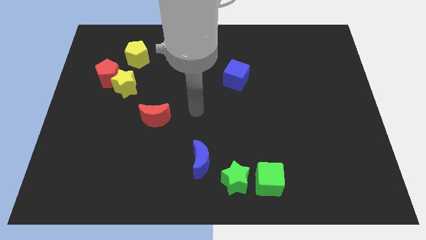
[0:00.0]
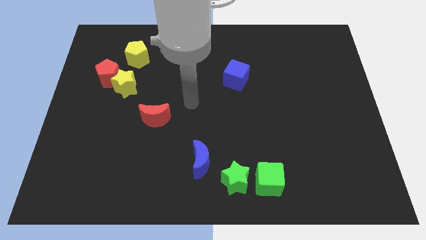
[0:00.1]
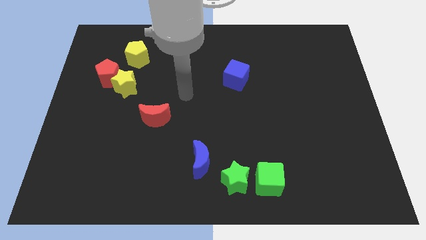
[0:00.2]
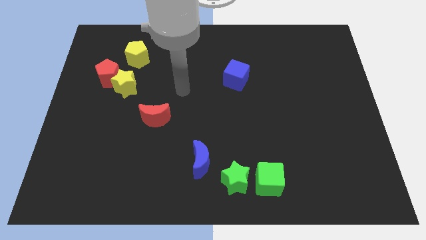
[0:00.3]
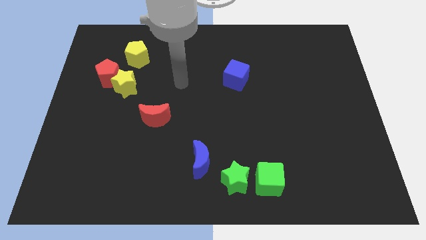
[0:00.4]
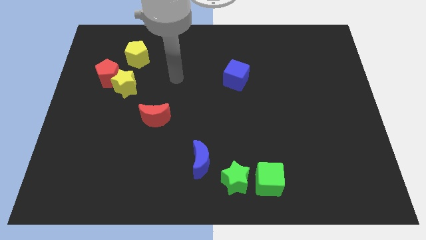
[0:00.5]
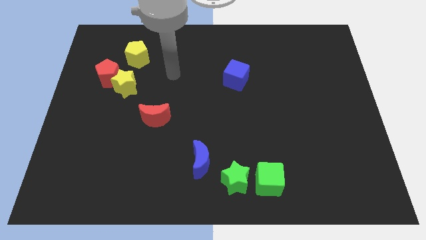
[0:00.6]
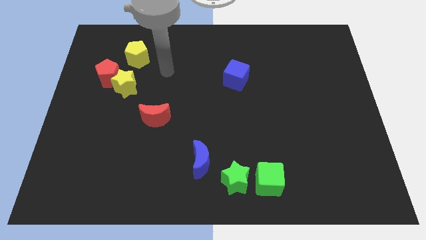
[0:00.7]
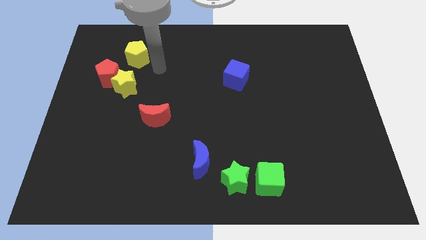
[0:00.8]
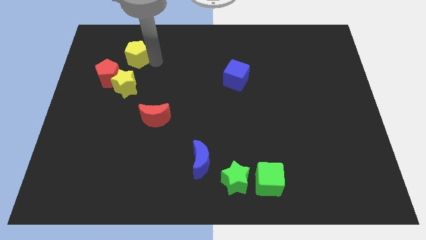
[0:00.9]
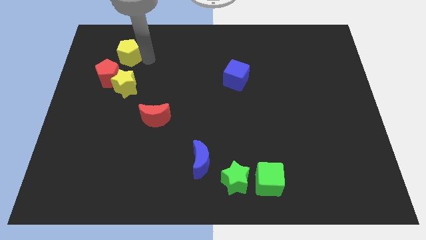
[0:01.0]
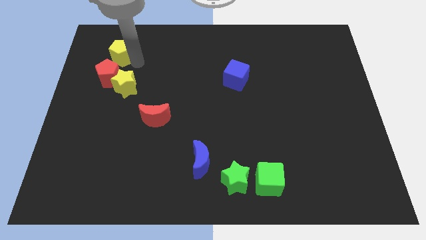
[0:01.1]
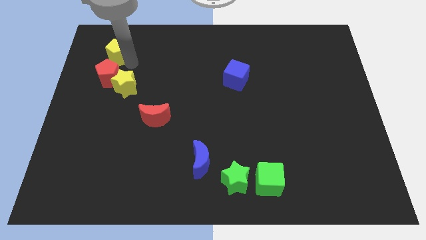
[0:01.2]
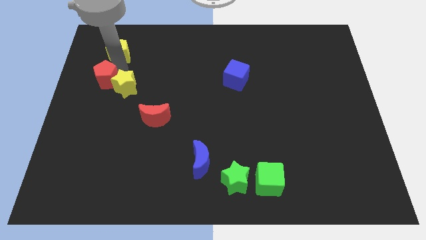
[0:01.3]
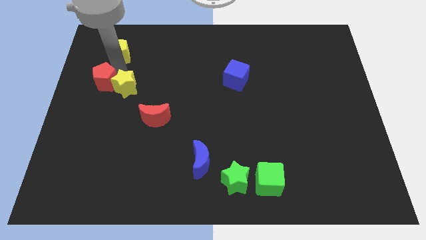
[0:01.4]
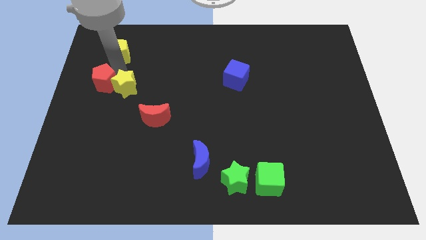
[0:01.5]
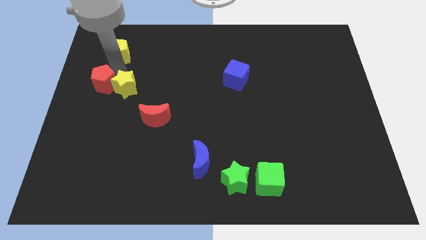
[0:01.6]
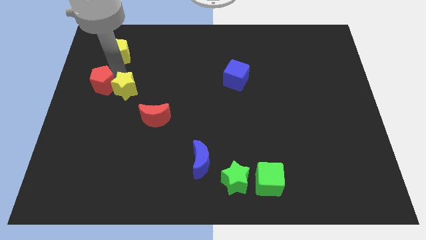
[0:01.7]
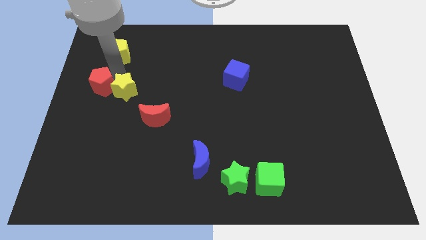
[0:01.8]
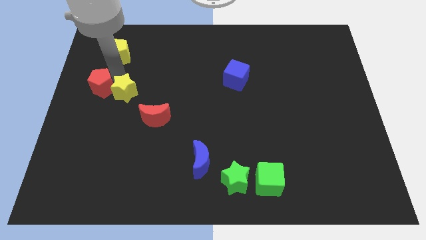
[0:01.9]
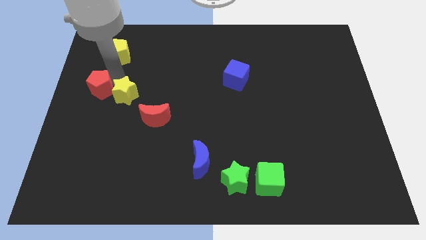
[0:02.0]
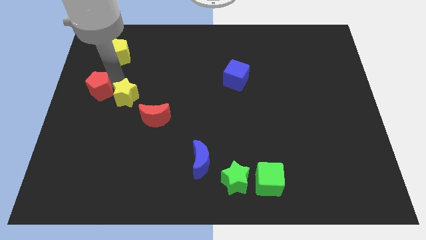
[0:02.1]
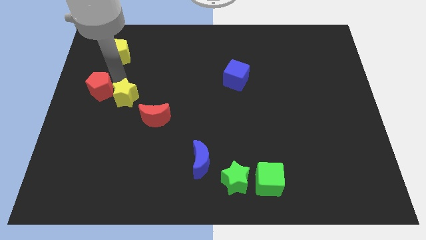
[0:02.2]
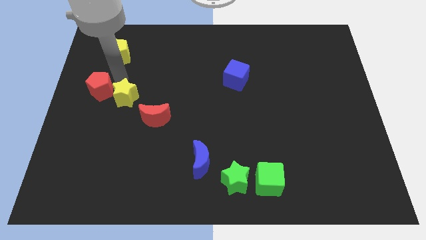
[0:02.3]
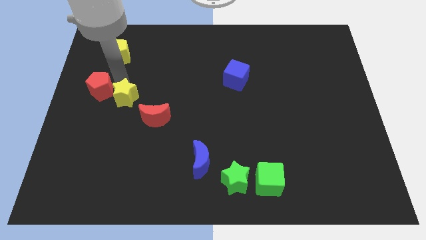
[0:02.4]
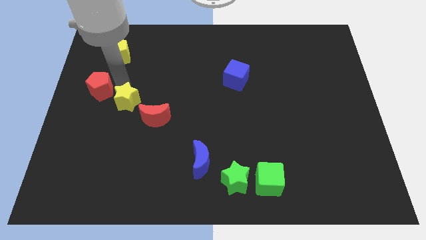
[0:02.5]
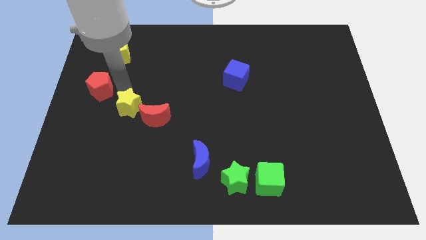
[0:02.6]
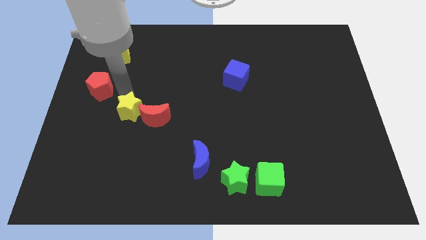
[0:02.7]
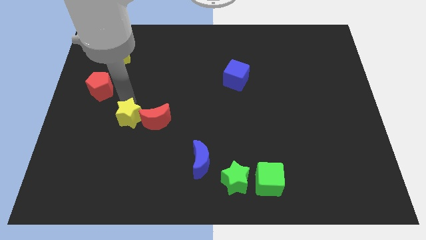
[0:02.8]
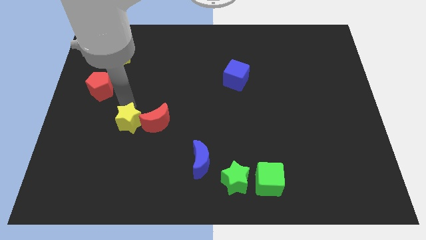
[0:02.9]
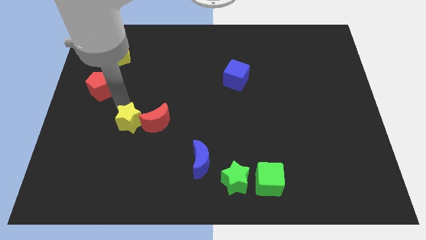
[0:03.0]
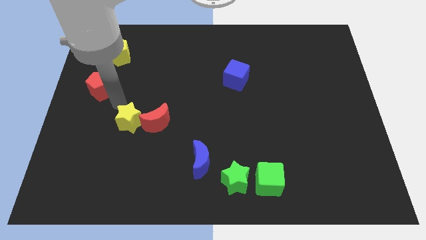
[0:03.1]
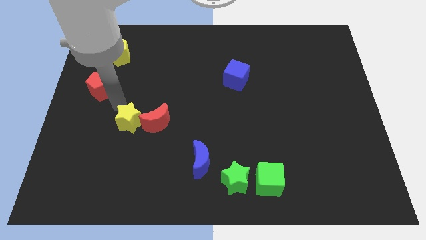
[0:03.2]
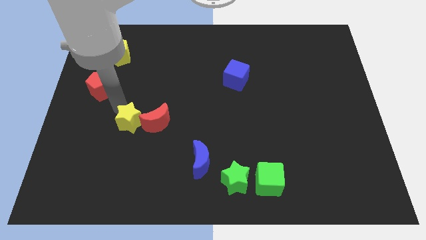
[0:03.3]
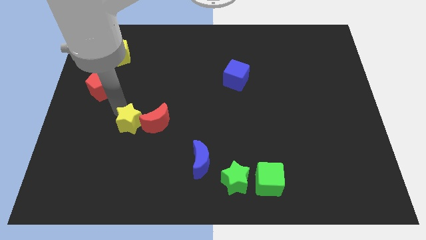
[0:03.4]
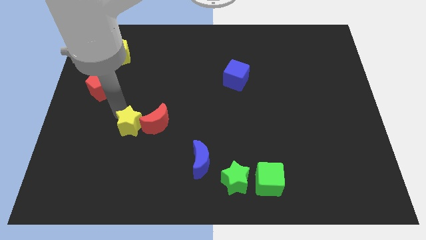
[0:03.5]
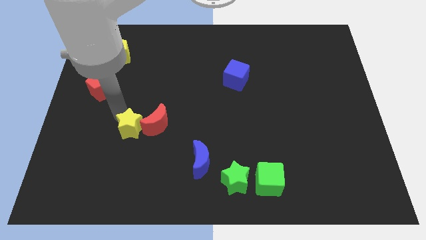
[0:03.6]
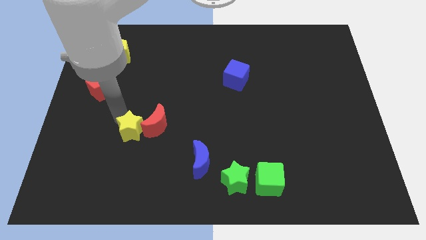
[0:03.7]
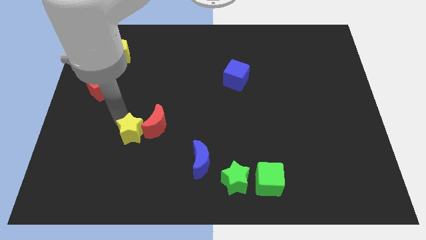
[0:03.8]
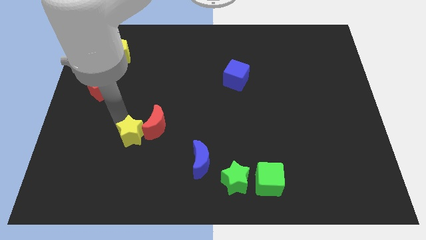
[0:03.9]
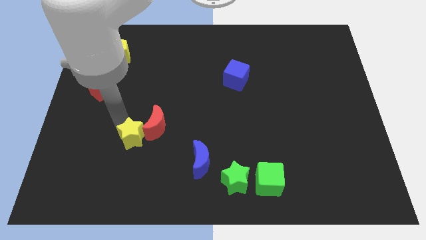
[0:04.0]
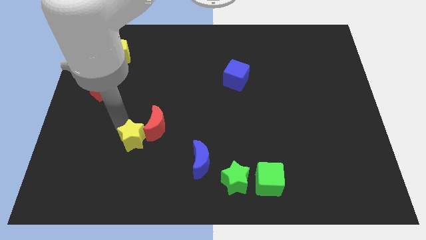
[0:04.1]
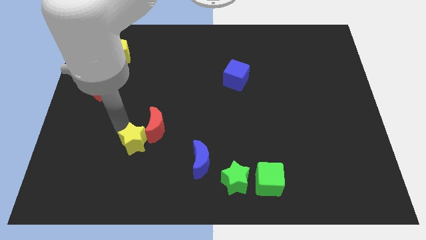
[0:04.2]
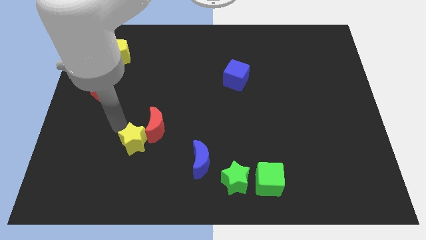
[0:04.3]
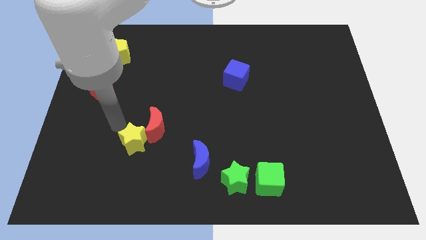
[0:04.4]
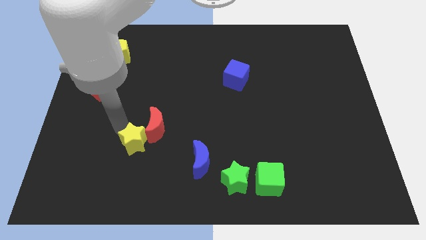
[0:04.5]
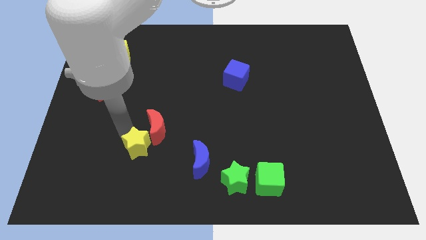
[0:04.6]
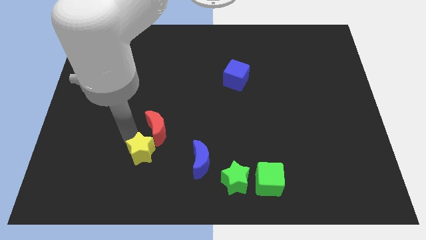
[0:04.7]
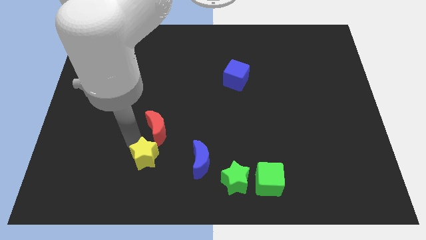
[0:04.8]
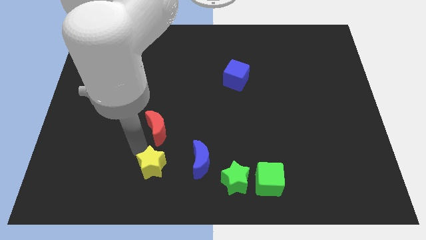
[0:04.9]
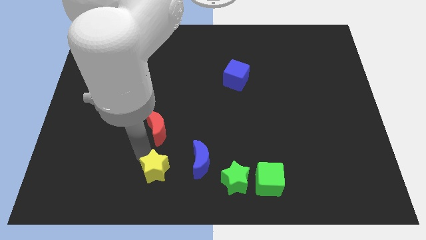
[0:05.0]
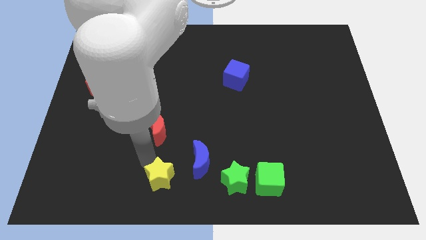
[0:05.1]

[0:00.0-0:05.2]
move the yellow star diagonally down and to the left of the blue moon

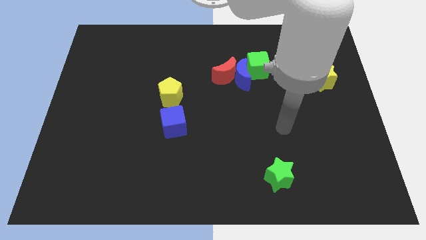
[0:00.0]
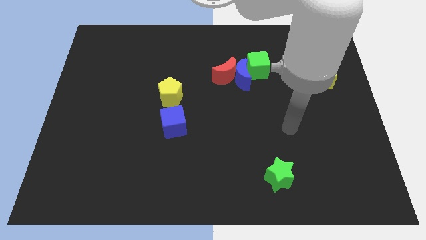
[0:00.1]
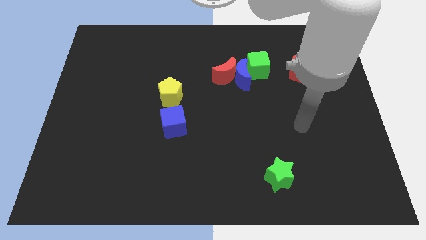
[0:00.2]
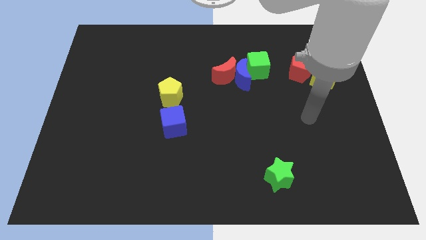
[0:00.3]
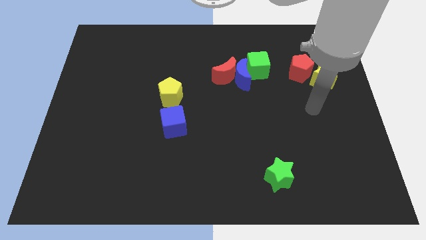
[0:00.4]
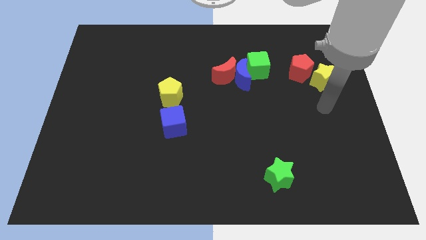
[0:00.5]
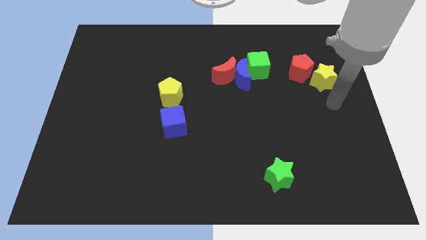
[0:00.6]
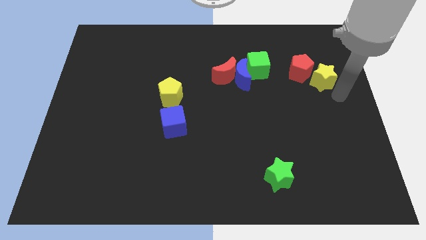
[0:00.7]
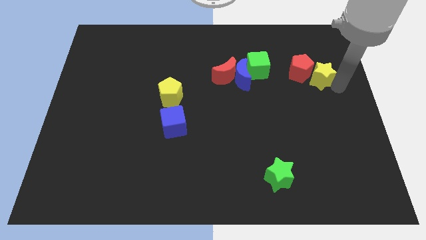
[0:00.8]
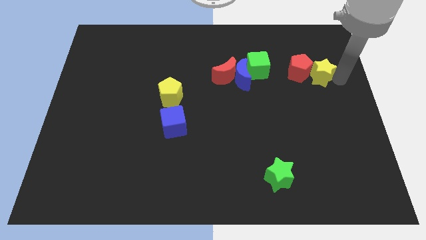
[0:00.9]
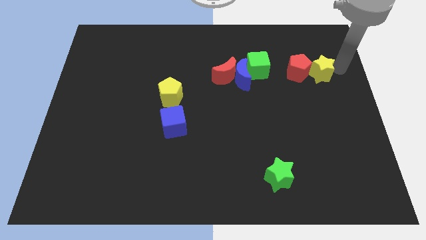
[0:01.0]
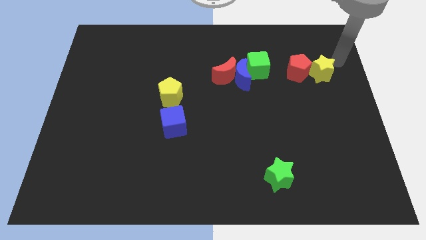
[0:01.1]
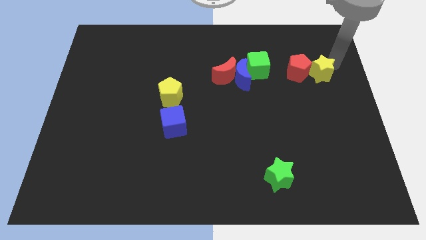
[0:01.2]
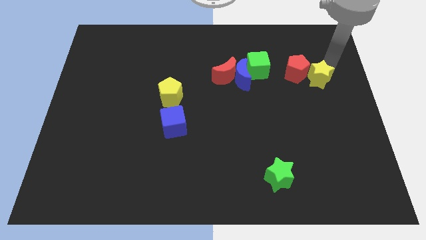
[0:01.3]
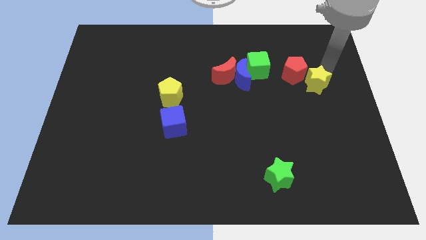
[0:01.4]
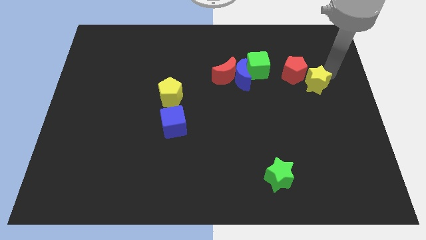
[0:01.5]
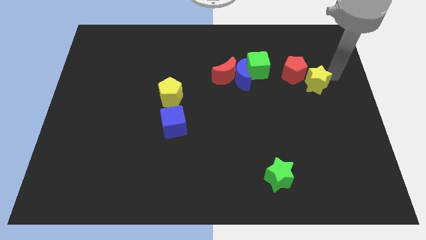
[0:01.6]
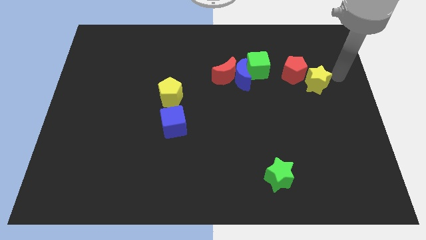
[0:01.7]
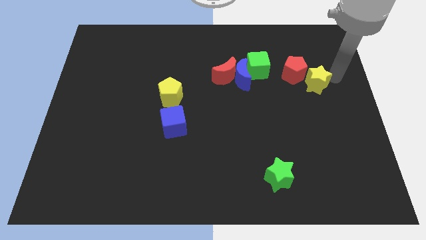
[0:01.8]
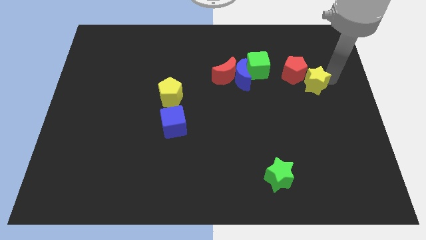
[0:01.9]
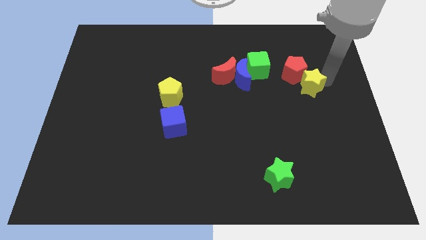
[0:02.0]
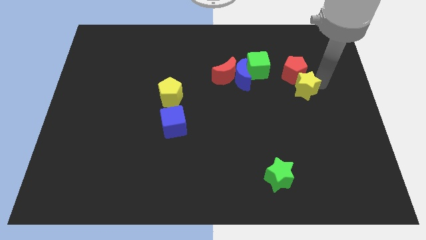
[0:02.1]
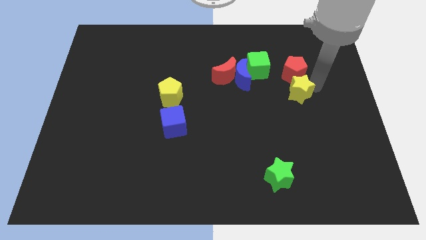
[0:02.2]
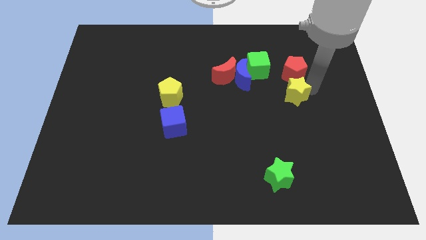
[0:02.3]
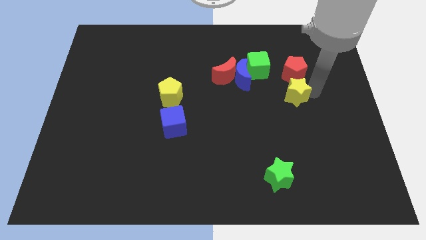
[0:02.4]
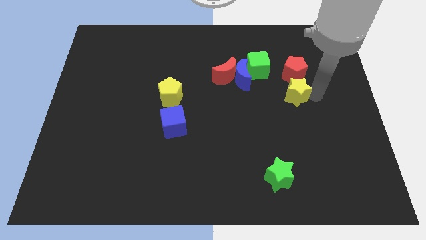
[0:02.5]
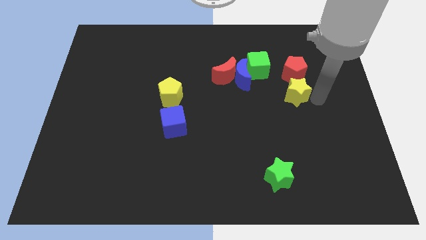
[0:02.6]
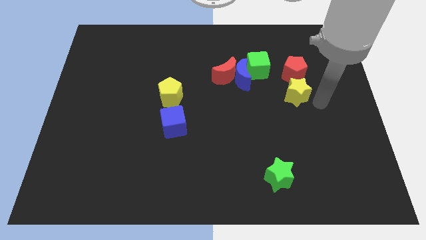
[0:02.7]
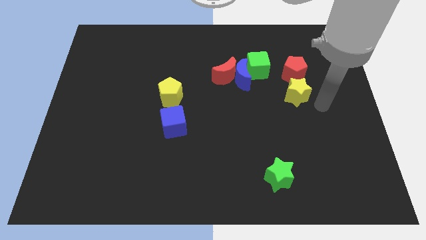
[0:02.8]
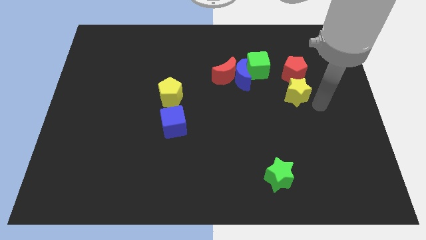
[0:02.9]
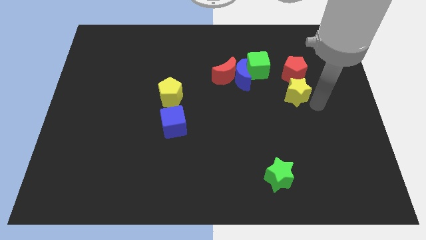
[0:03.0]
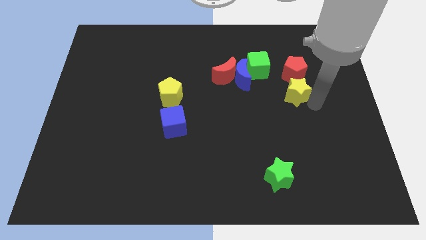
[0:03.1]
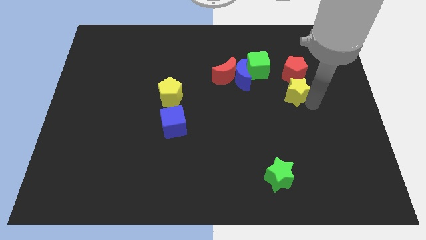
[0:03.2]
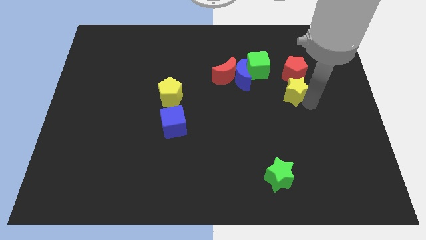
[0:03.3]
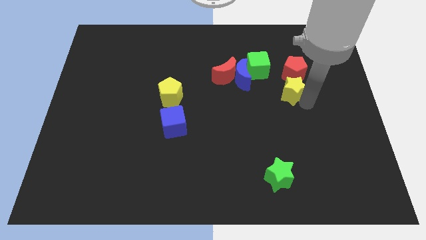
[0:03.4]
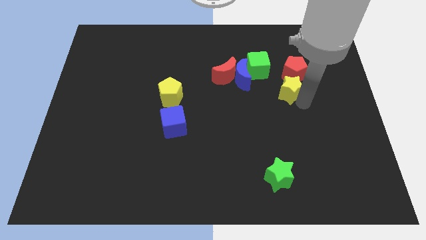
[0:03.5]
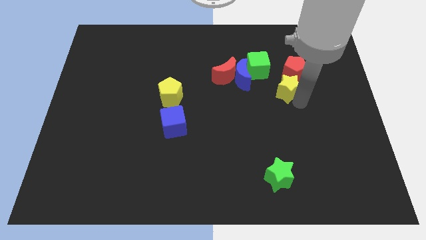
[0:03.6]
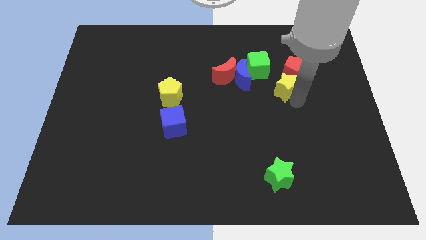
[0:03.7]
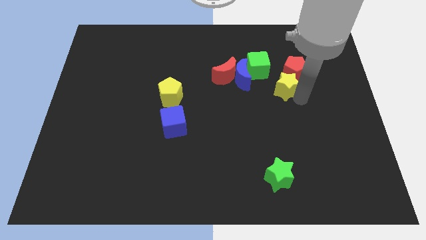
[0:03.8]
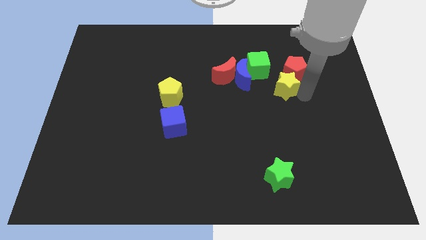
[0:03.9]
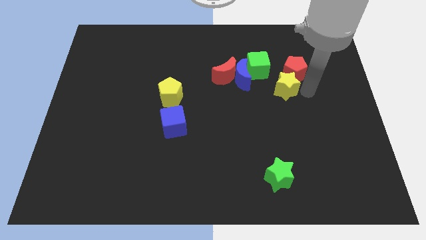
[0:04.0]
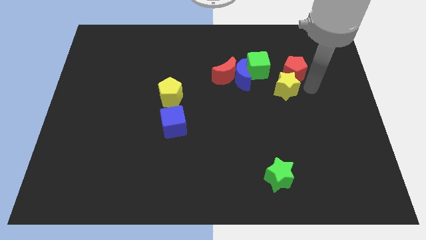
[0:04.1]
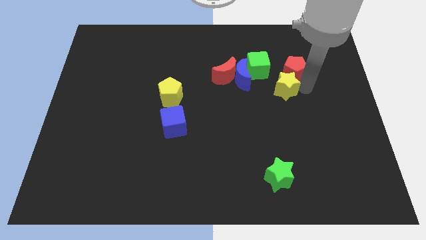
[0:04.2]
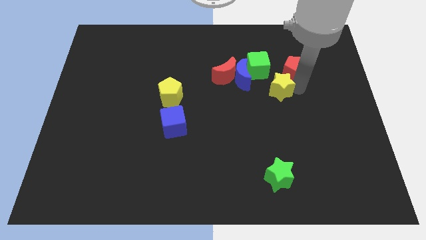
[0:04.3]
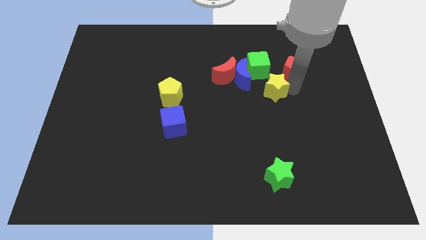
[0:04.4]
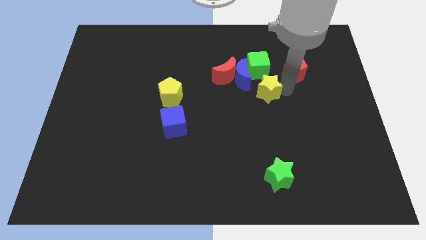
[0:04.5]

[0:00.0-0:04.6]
push the yellow star to the bottom right of the red moon
